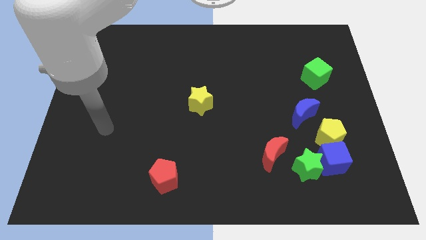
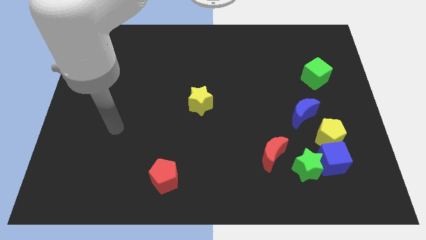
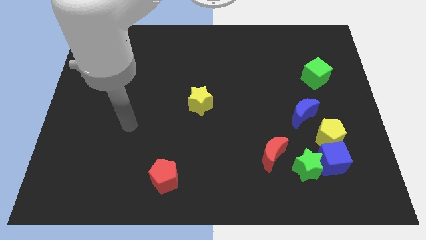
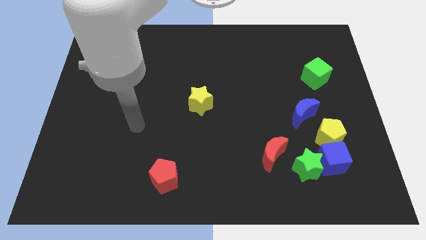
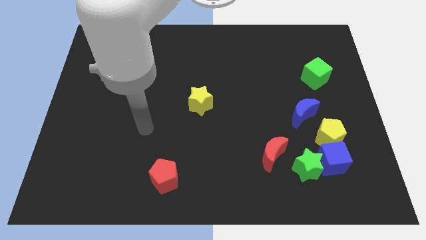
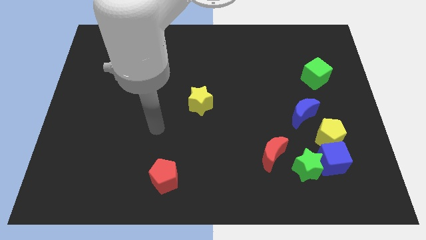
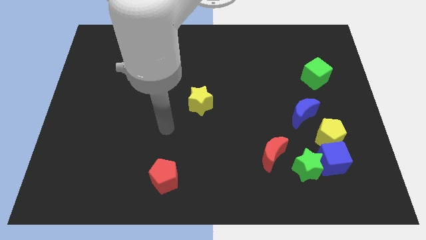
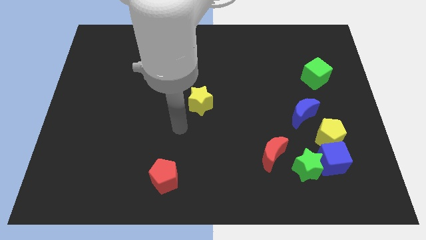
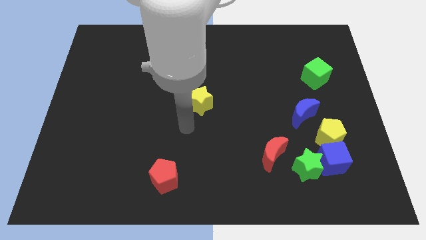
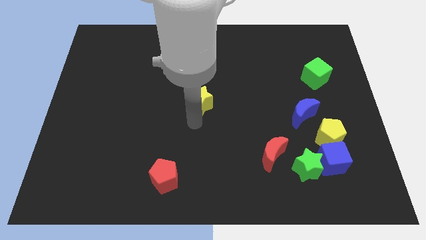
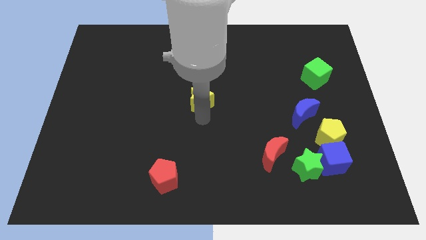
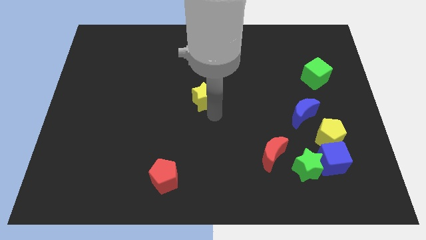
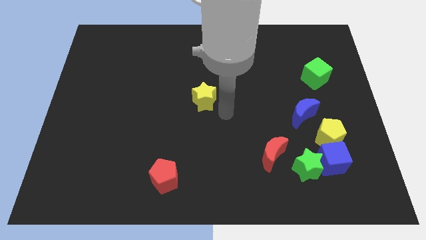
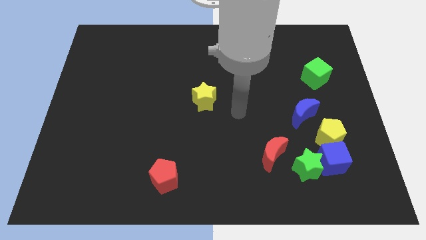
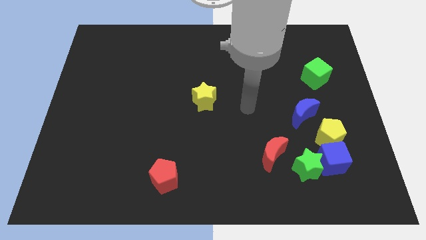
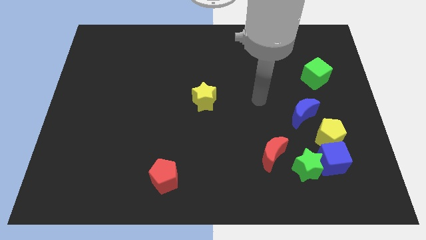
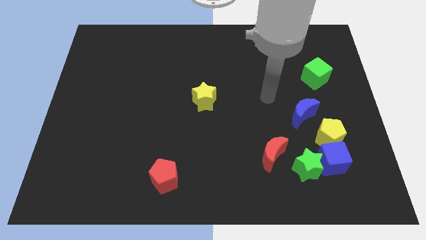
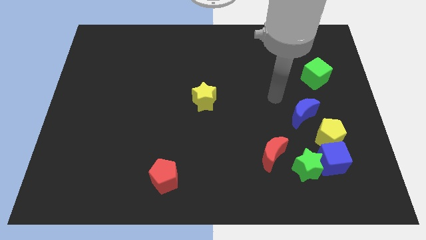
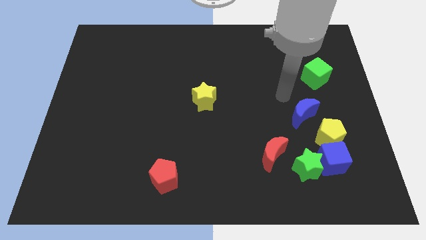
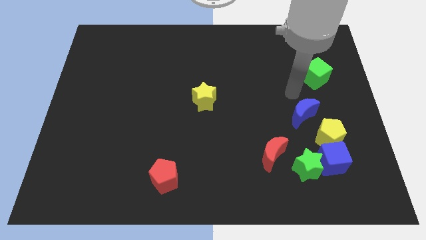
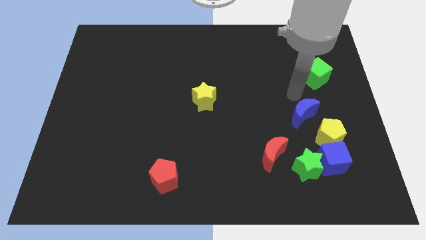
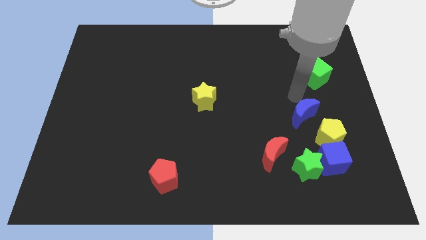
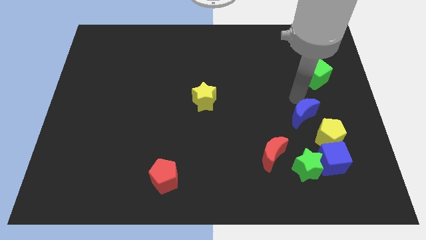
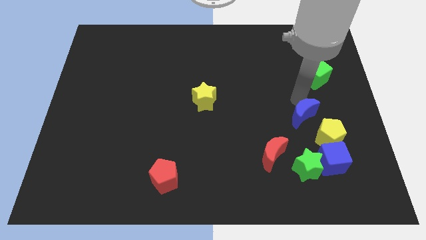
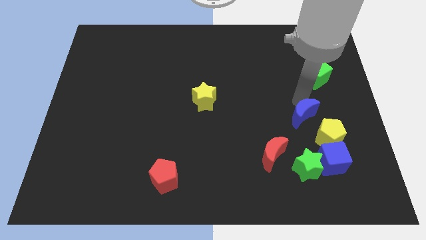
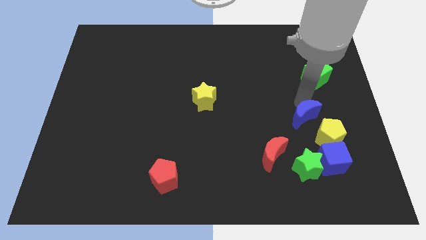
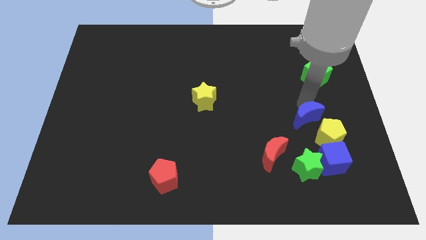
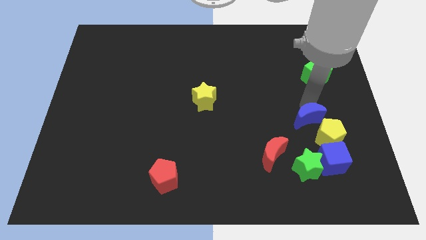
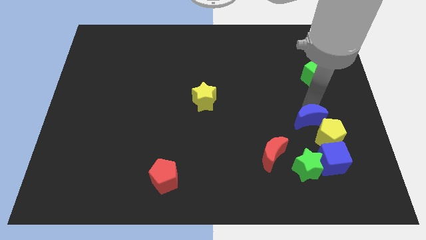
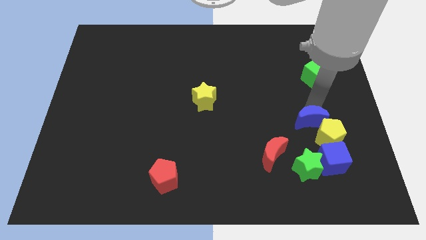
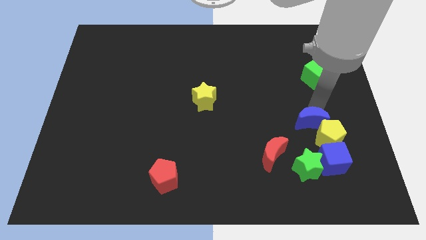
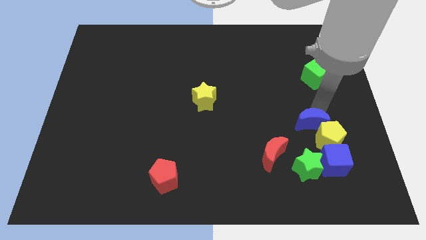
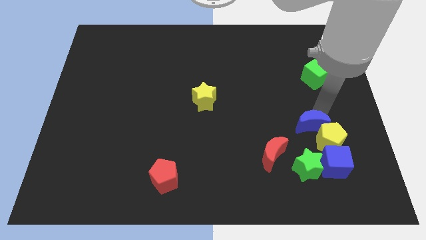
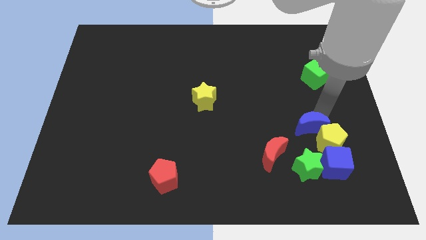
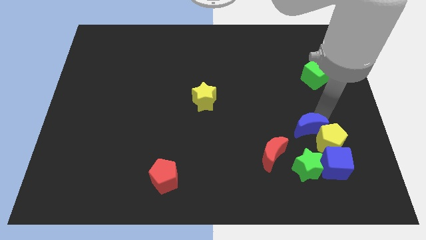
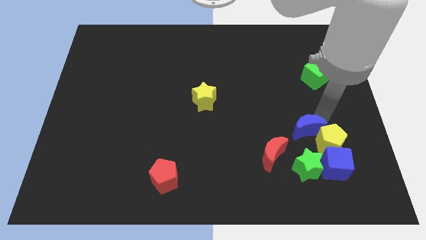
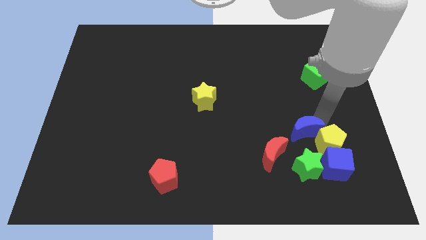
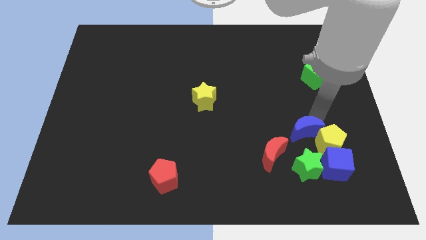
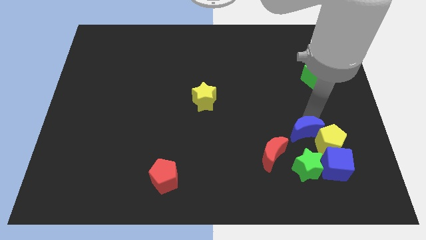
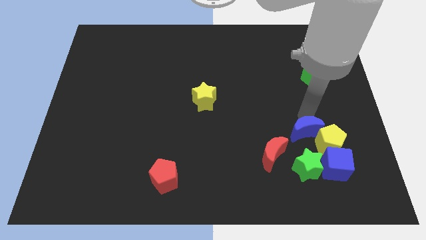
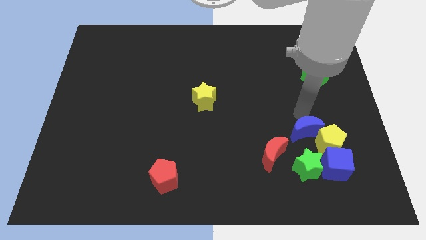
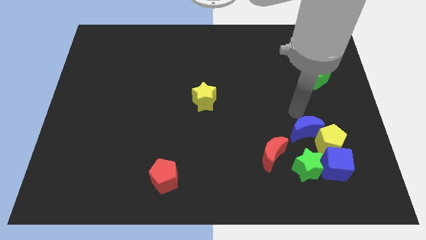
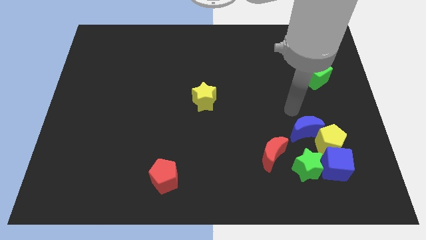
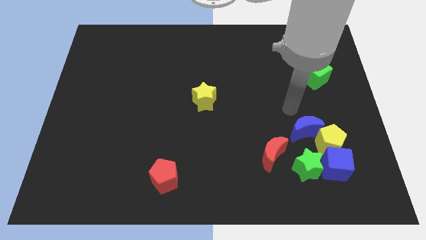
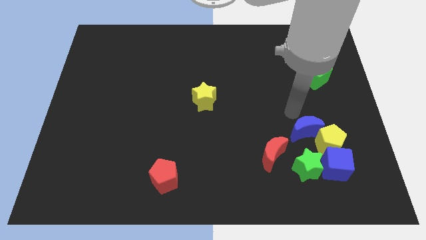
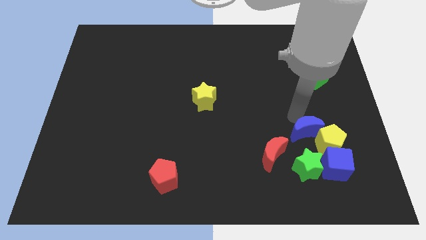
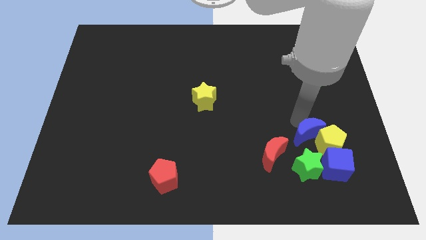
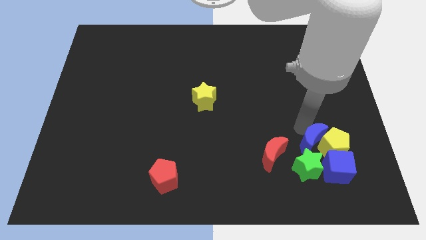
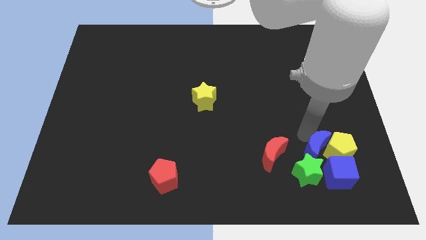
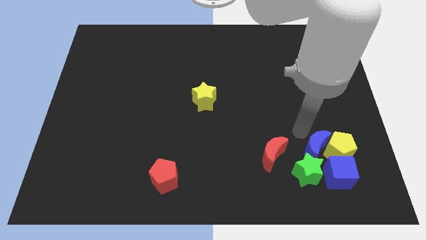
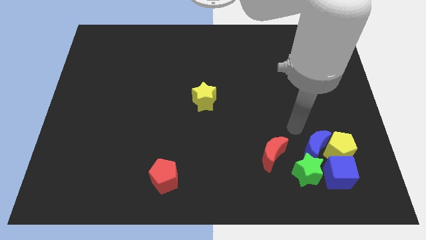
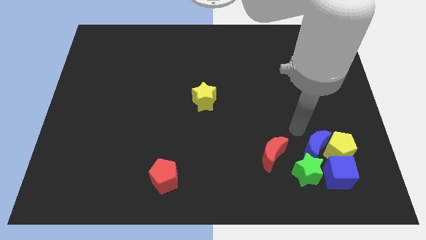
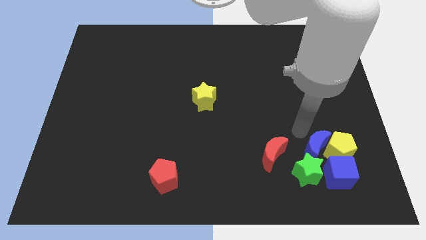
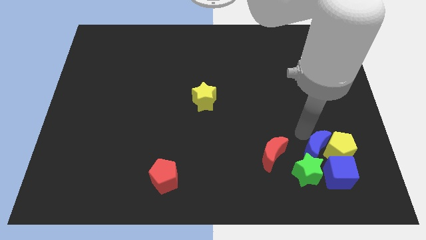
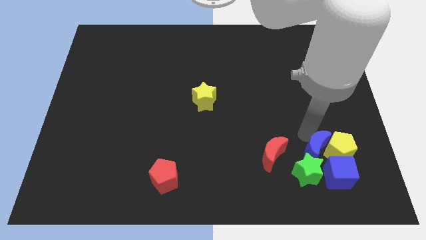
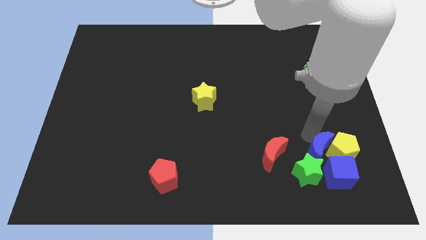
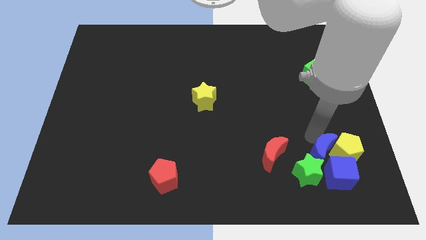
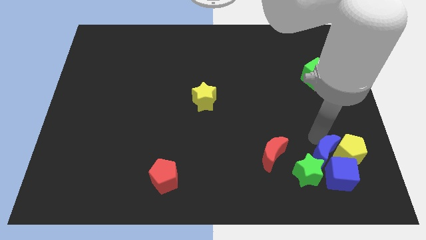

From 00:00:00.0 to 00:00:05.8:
push the blue moon close to the blue cube
